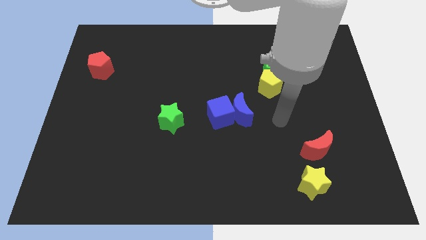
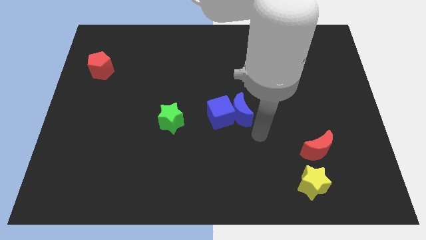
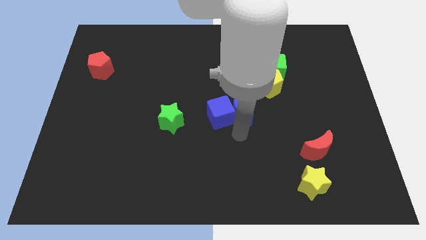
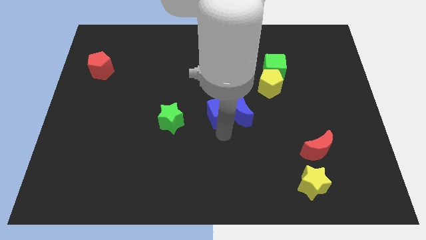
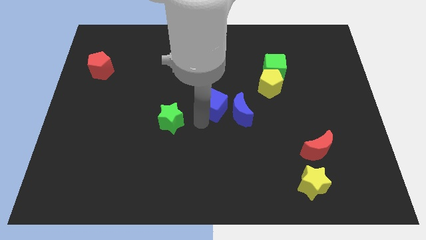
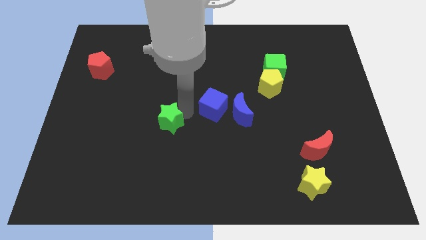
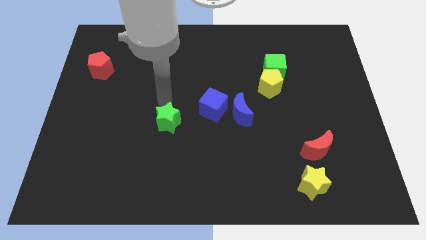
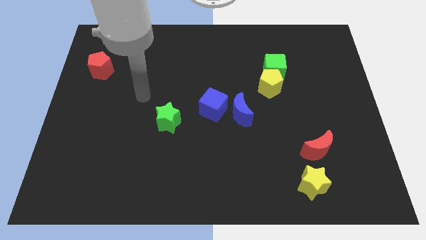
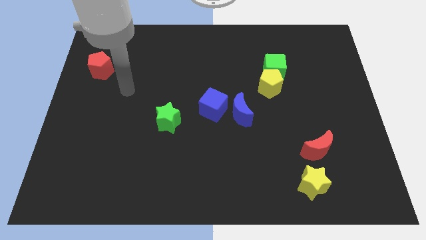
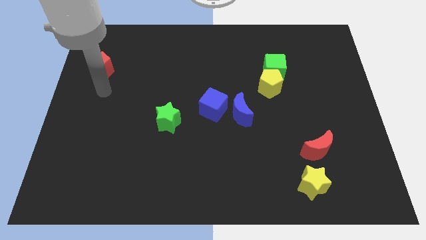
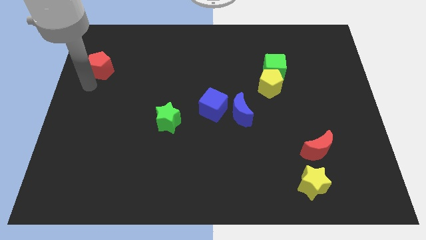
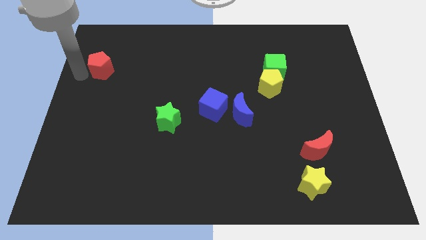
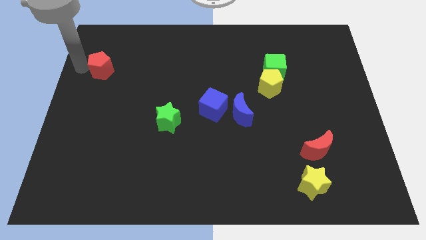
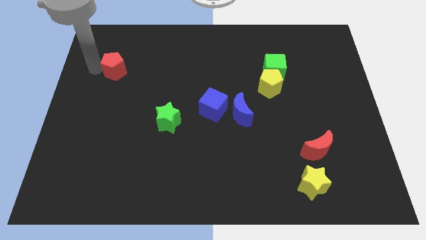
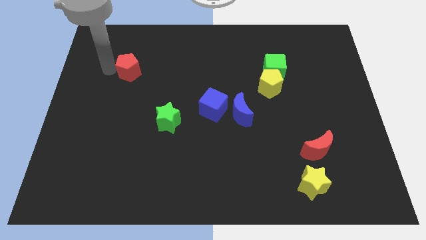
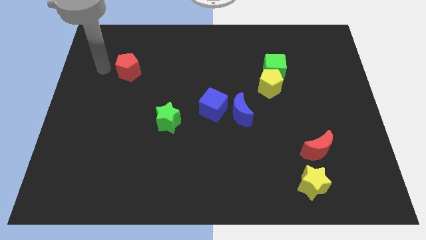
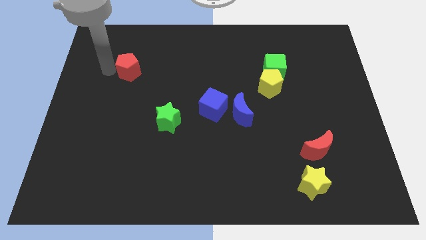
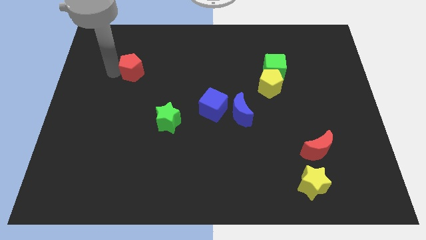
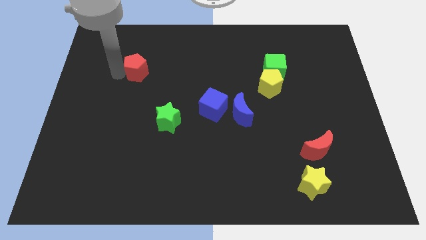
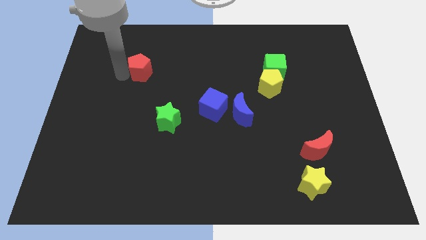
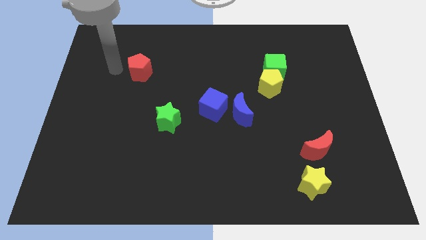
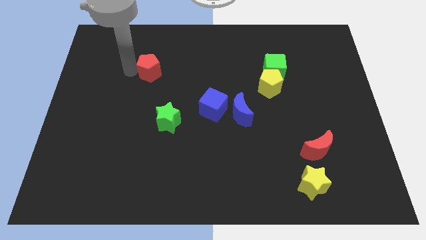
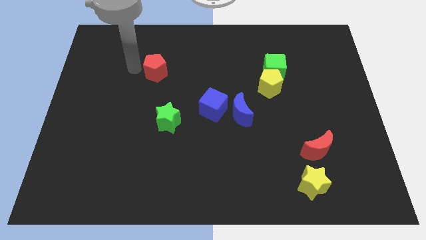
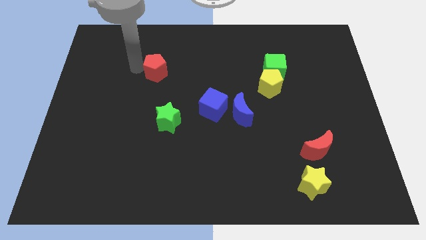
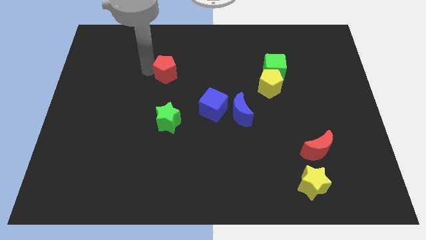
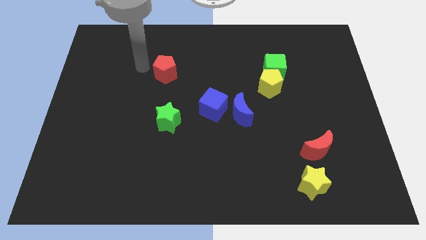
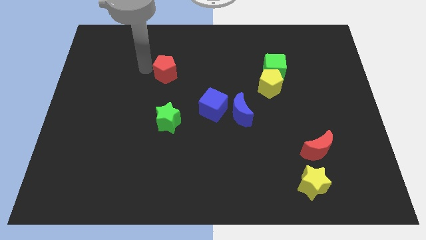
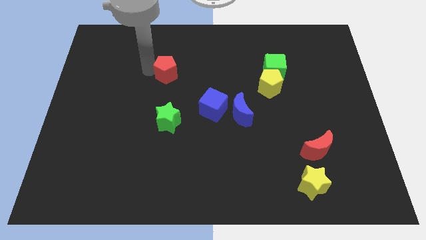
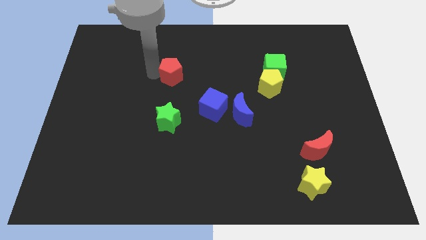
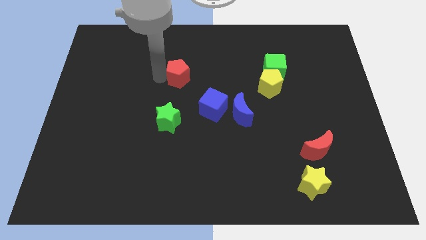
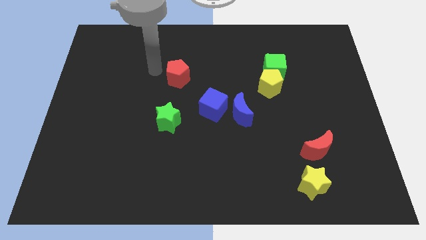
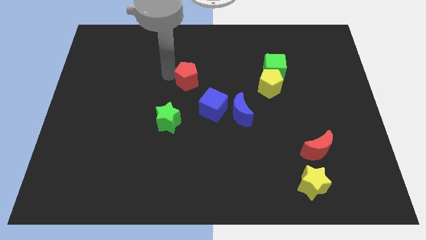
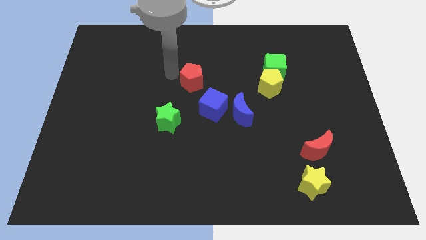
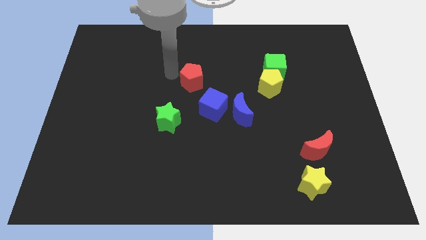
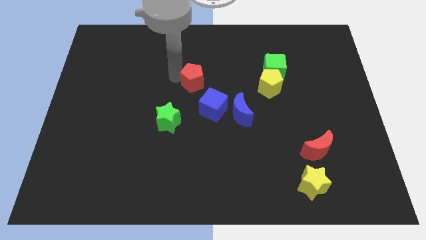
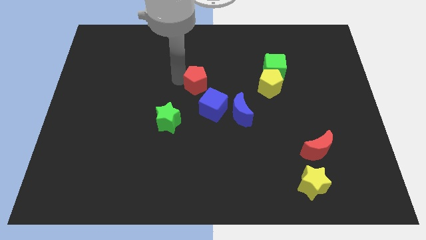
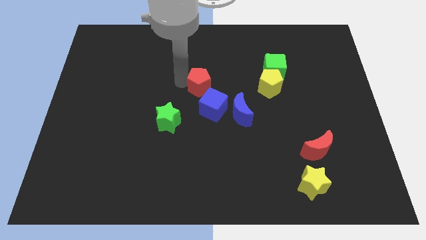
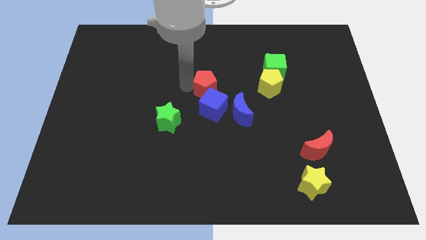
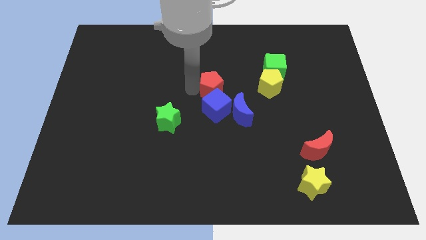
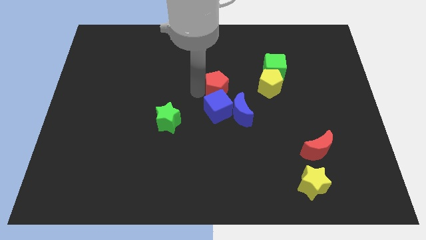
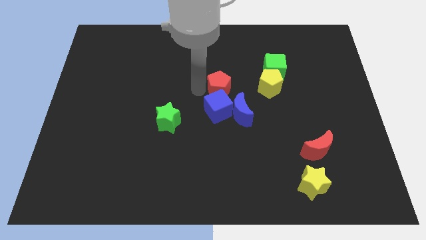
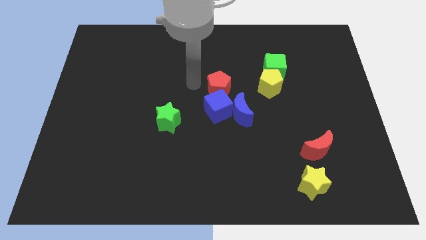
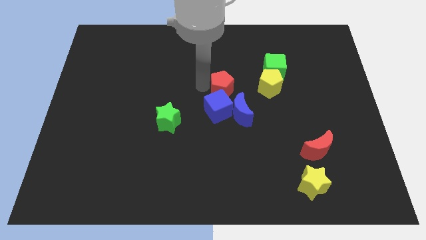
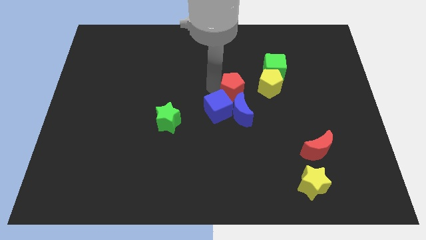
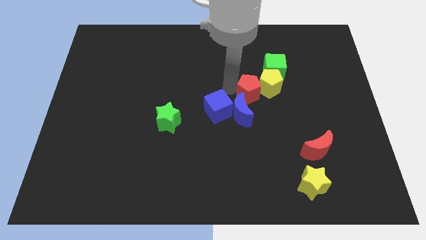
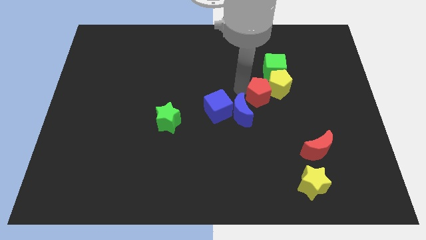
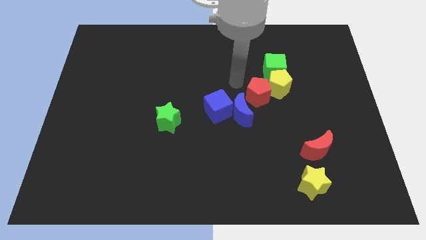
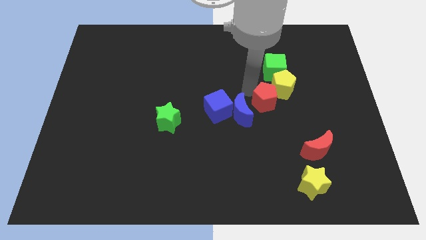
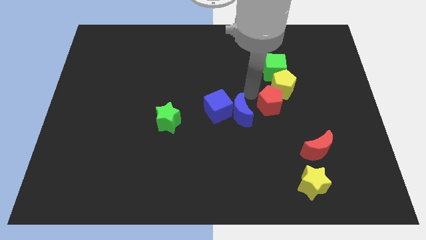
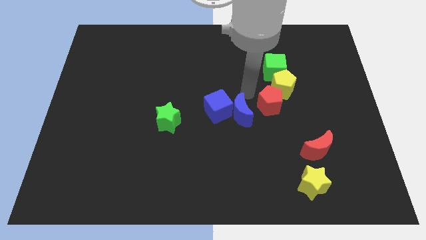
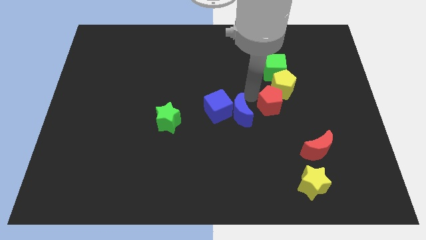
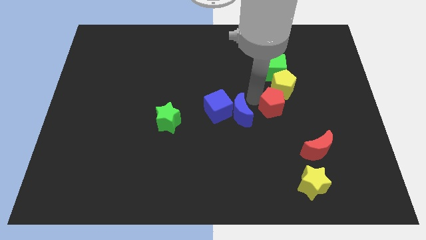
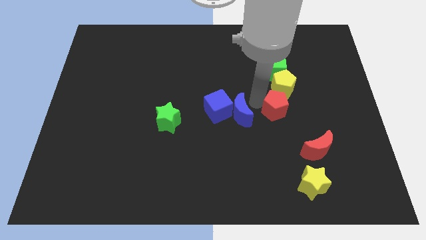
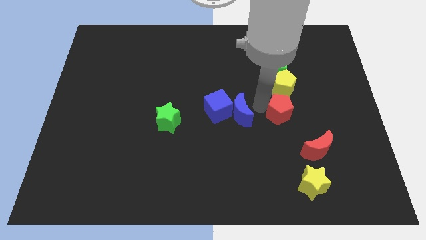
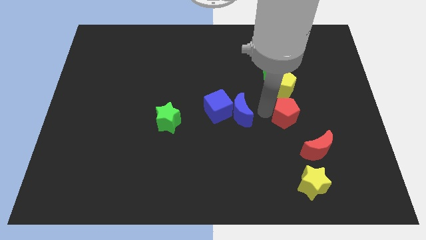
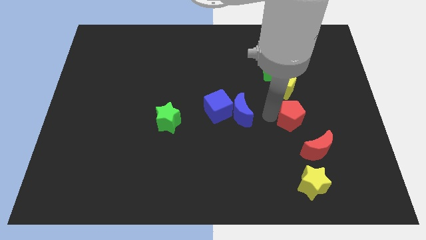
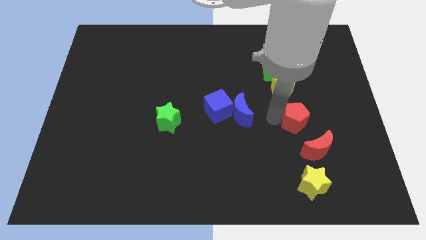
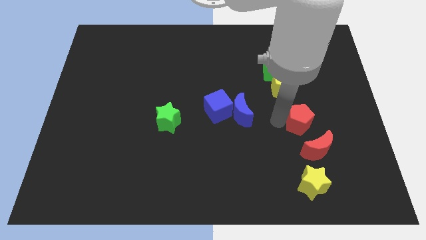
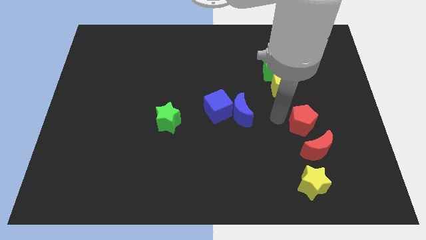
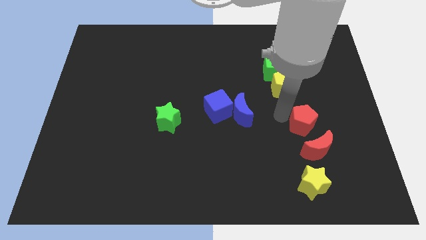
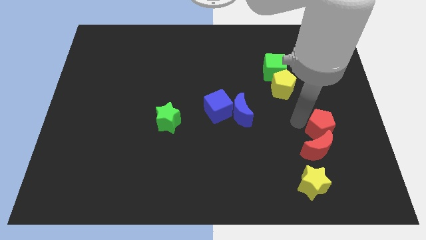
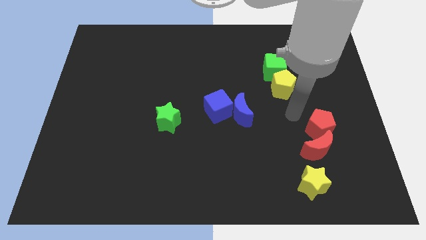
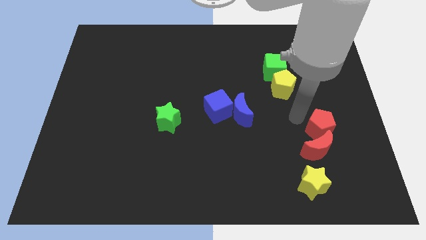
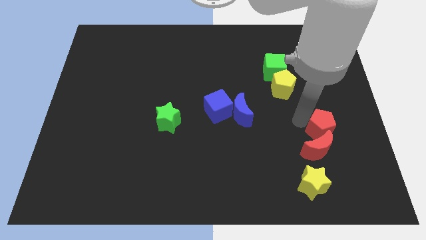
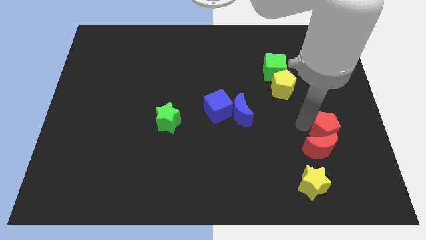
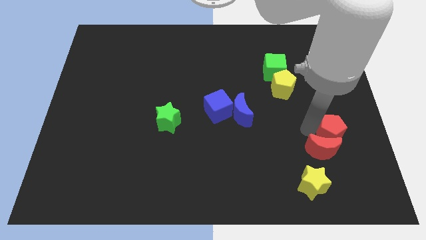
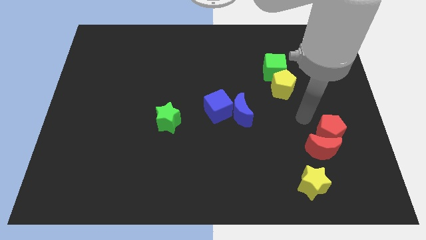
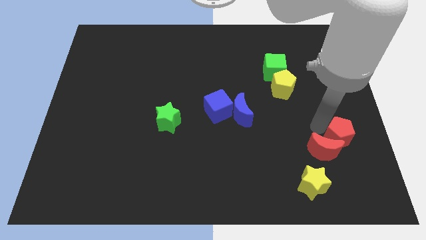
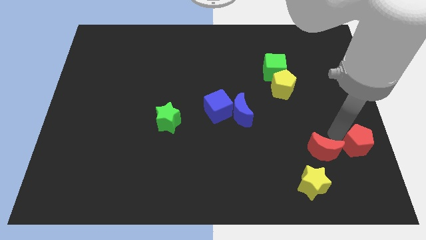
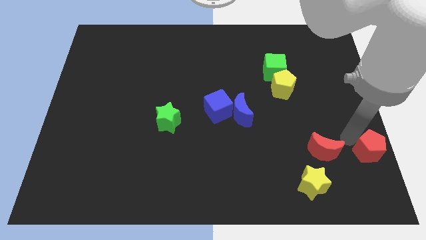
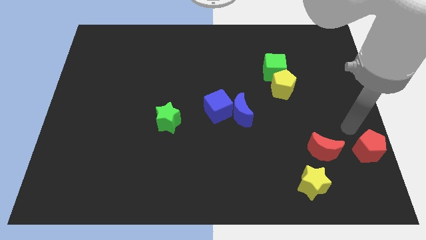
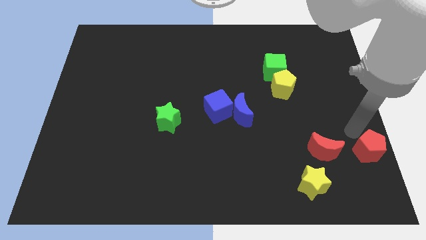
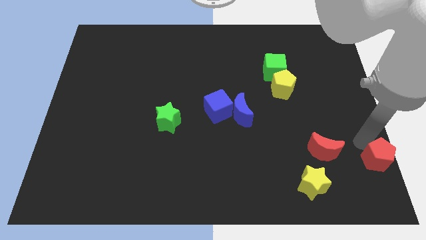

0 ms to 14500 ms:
put the red pentagon to the lower right corner
